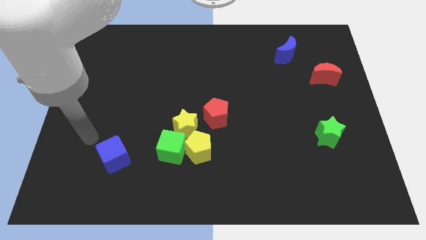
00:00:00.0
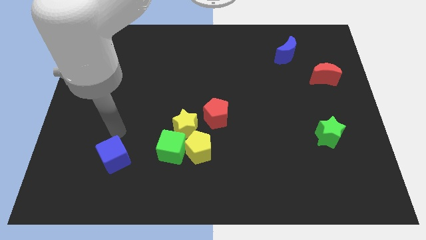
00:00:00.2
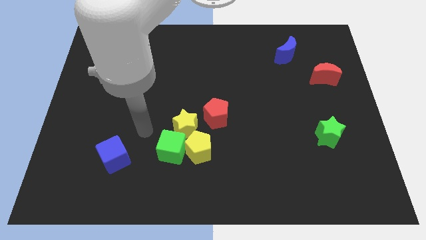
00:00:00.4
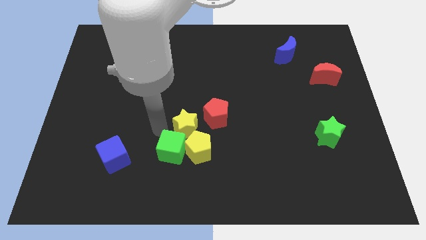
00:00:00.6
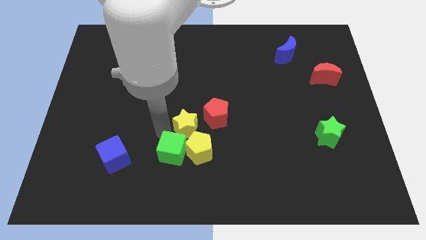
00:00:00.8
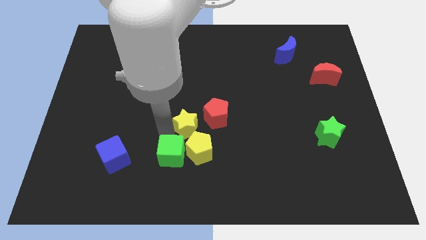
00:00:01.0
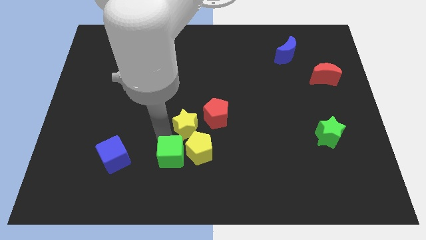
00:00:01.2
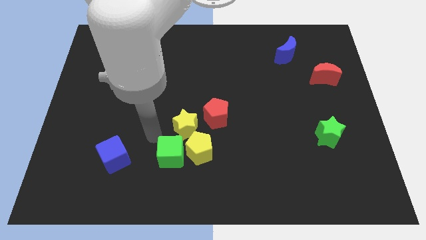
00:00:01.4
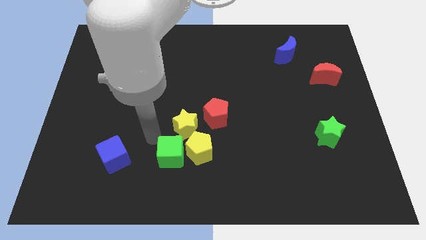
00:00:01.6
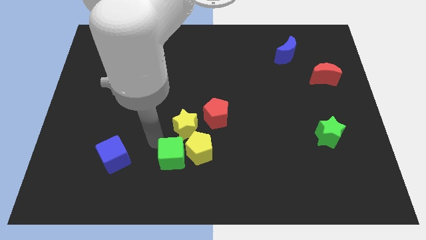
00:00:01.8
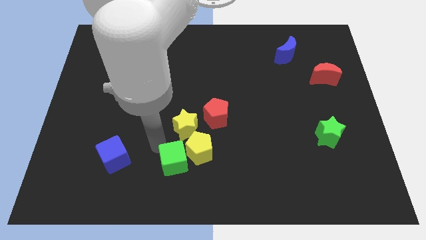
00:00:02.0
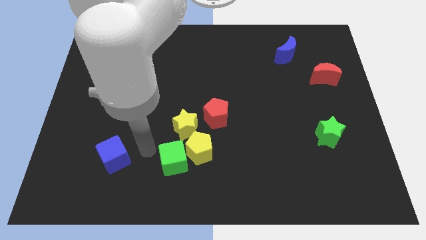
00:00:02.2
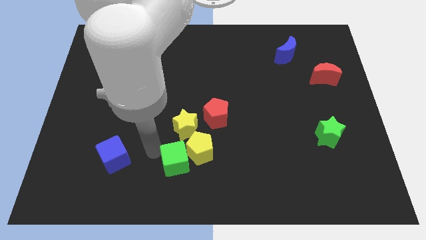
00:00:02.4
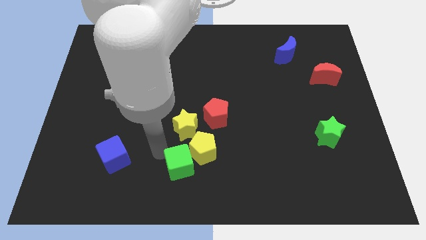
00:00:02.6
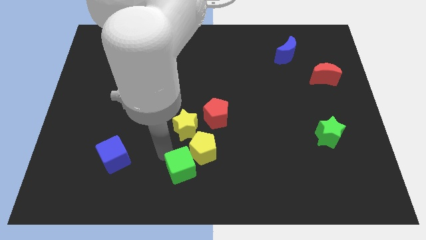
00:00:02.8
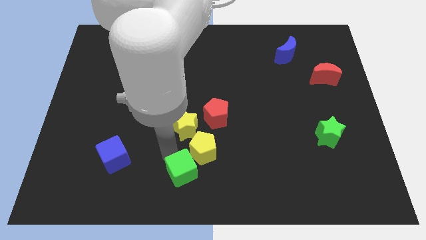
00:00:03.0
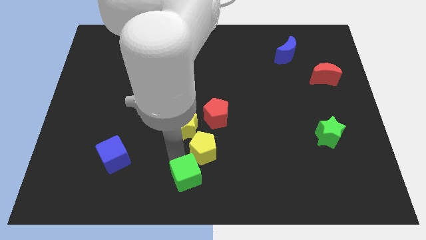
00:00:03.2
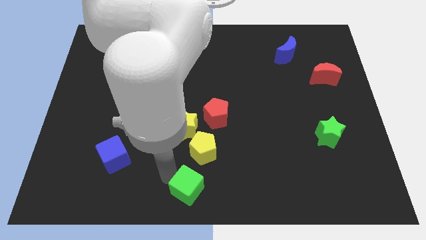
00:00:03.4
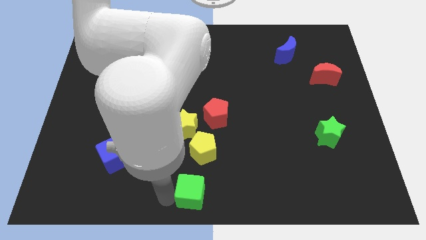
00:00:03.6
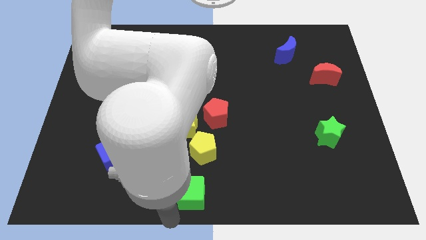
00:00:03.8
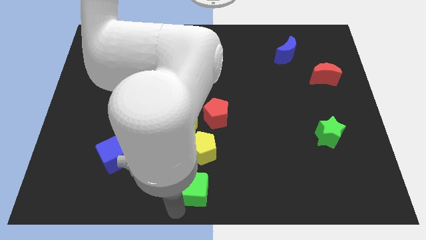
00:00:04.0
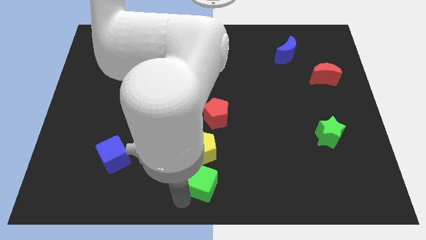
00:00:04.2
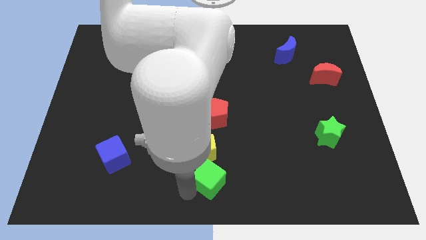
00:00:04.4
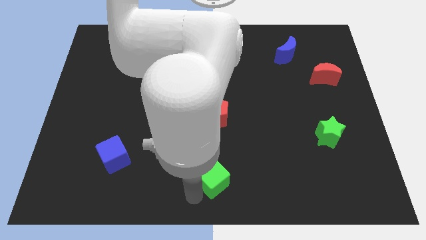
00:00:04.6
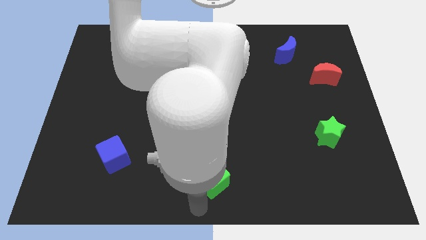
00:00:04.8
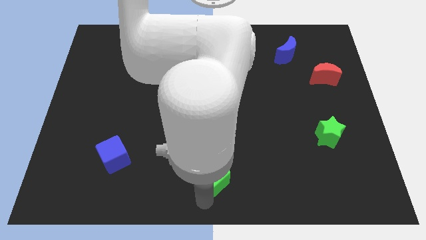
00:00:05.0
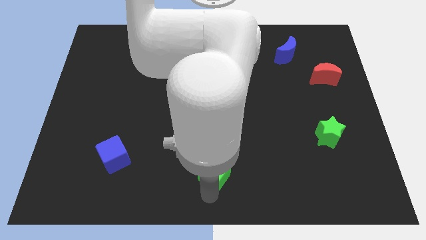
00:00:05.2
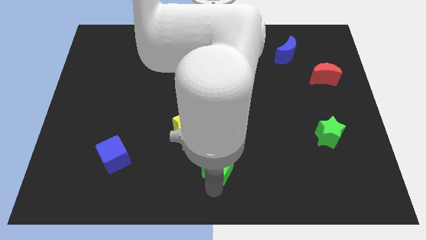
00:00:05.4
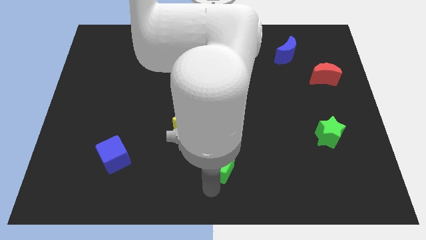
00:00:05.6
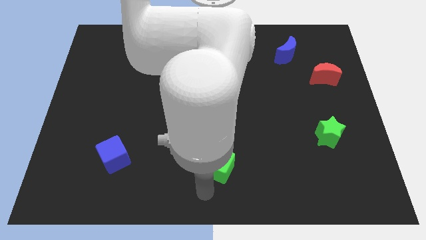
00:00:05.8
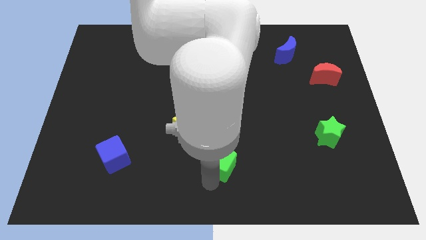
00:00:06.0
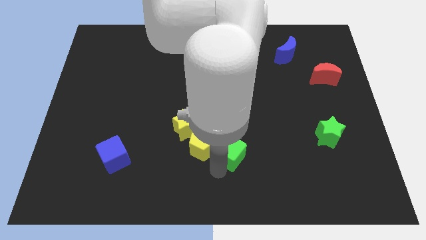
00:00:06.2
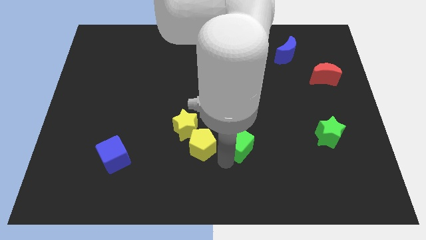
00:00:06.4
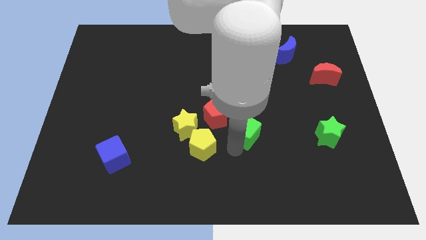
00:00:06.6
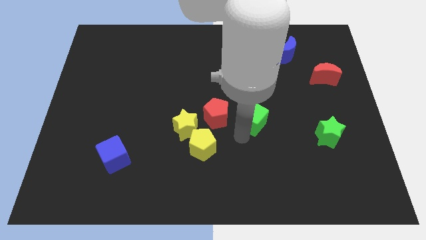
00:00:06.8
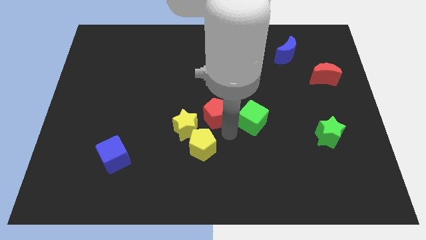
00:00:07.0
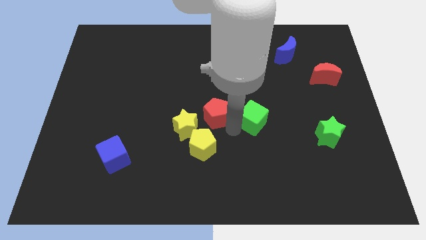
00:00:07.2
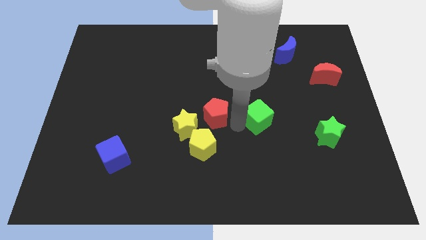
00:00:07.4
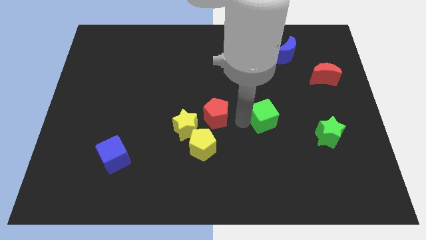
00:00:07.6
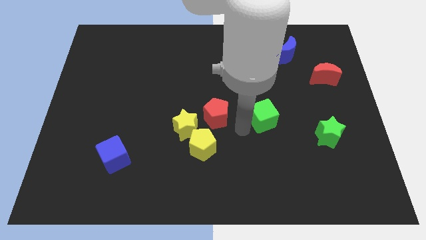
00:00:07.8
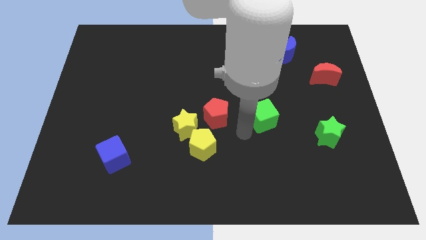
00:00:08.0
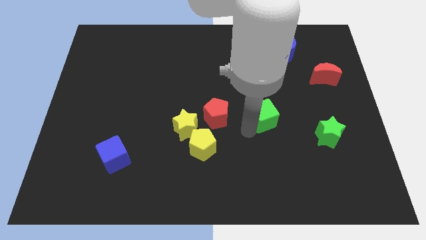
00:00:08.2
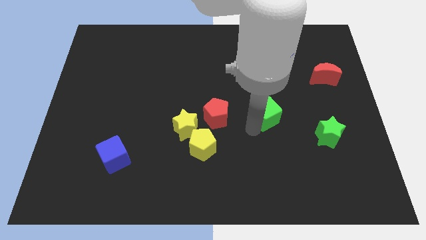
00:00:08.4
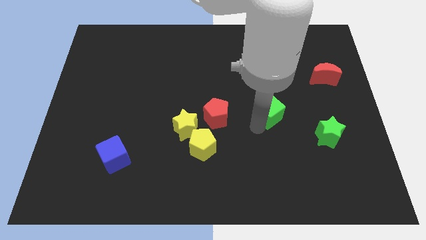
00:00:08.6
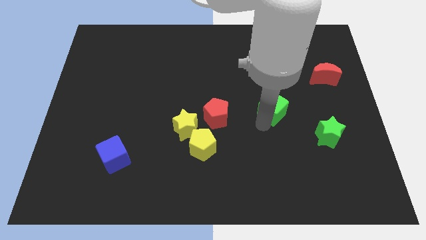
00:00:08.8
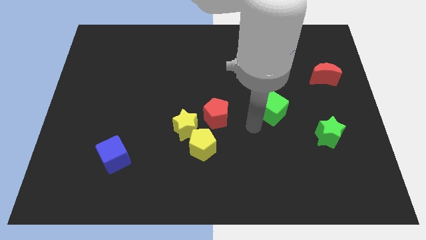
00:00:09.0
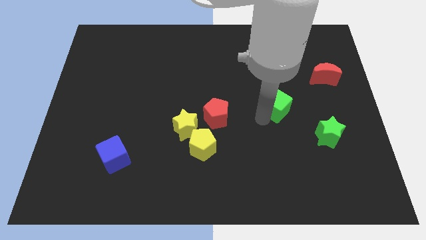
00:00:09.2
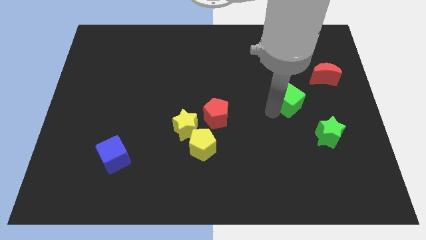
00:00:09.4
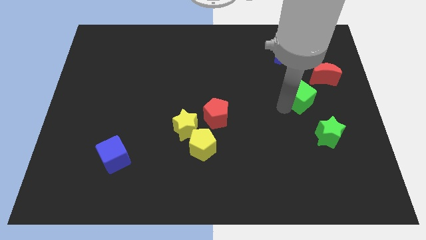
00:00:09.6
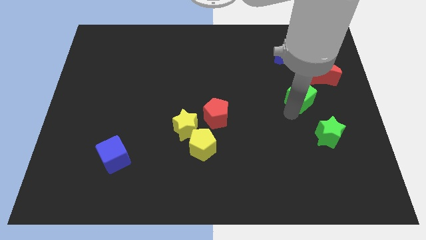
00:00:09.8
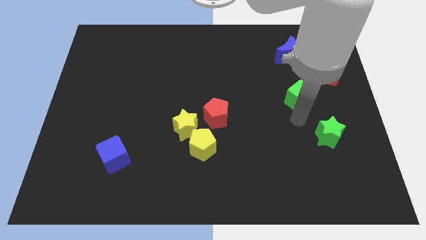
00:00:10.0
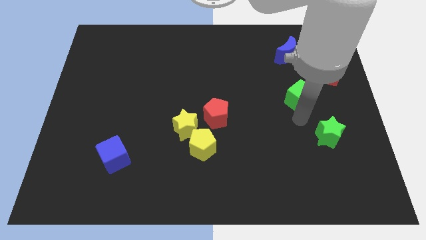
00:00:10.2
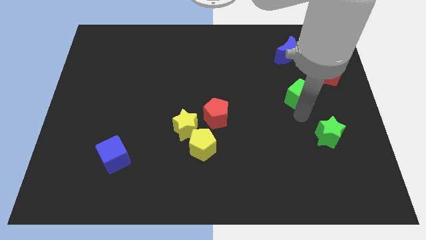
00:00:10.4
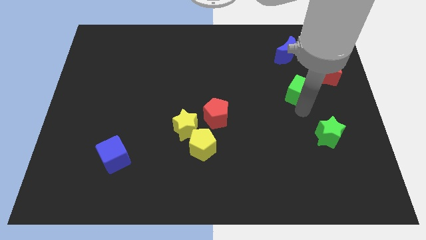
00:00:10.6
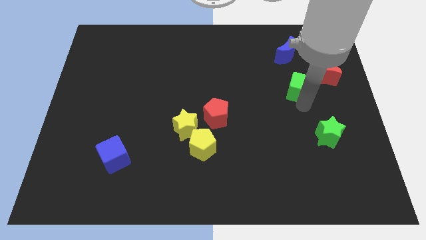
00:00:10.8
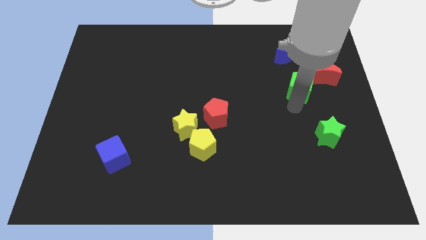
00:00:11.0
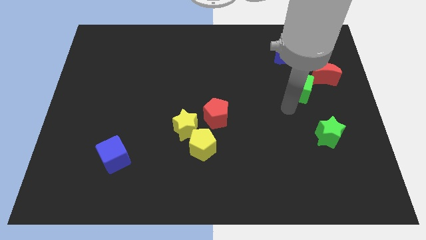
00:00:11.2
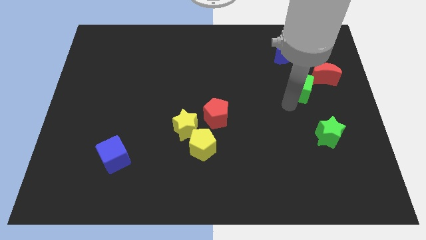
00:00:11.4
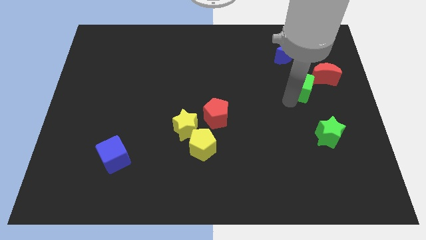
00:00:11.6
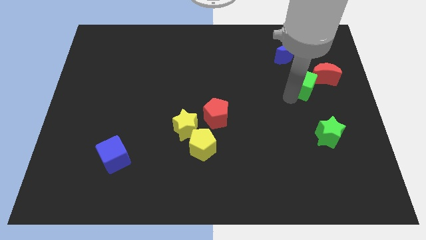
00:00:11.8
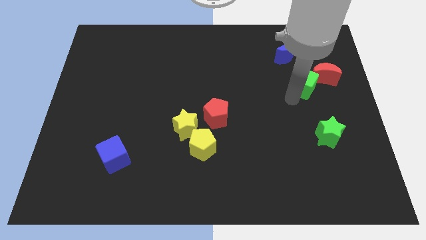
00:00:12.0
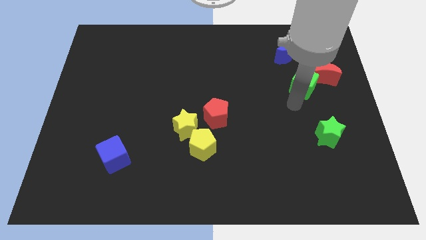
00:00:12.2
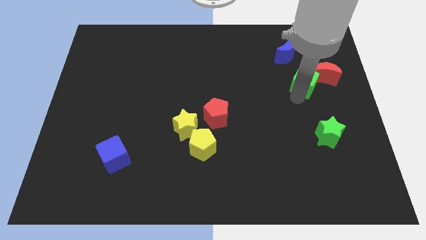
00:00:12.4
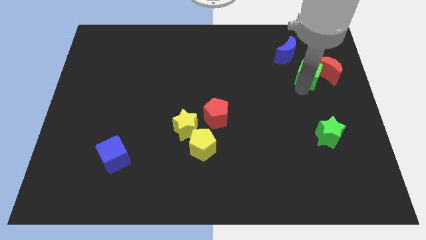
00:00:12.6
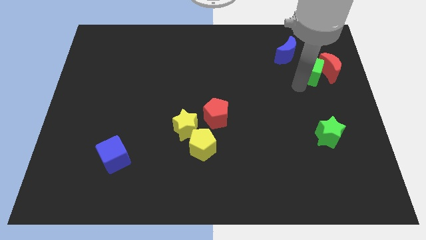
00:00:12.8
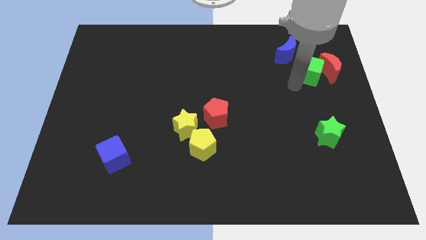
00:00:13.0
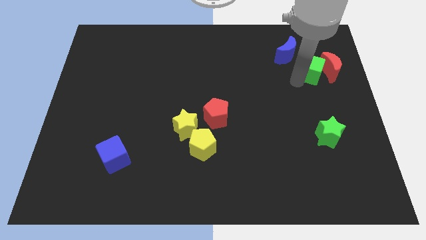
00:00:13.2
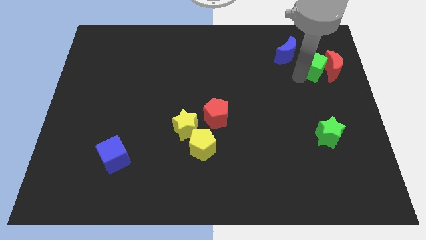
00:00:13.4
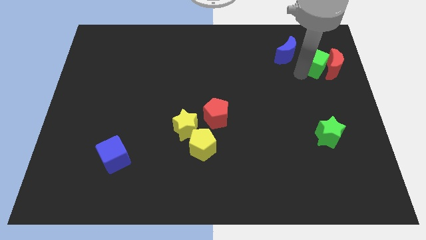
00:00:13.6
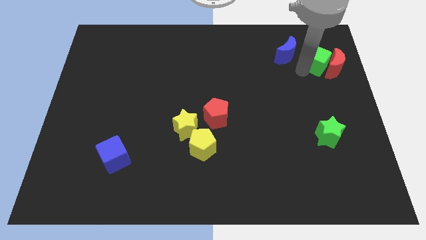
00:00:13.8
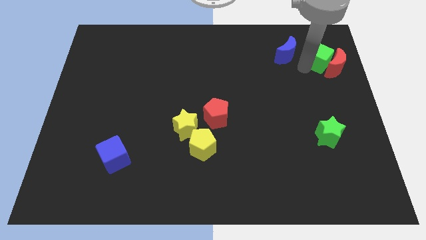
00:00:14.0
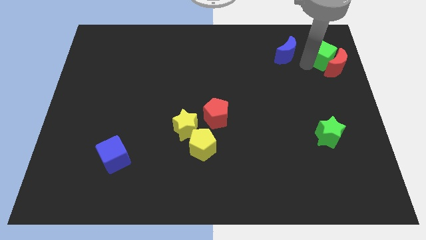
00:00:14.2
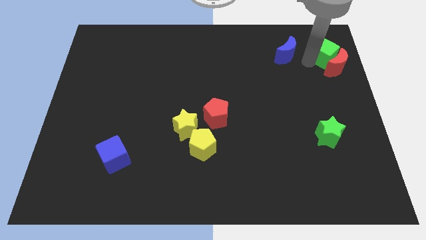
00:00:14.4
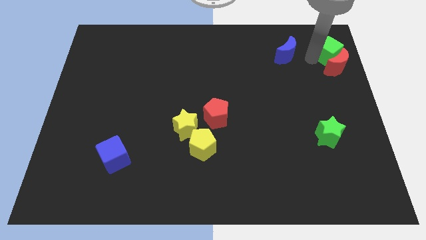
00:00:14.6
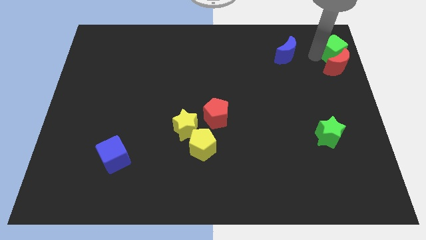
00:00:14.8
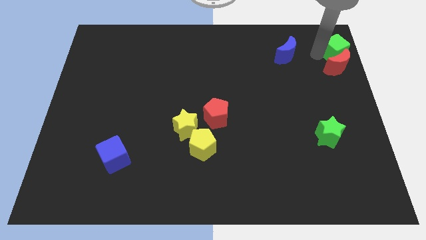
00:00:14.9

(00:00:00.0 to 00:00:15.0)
put the green cube to the top right corner
